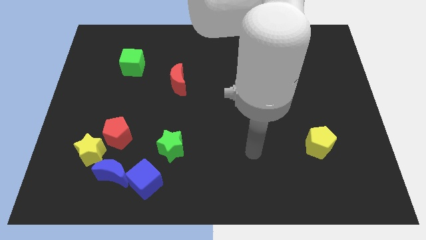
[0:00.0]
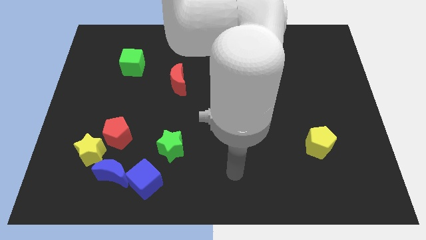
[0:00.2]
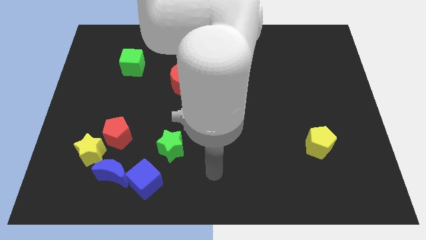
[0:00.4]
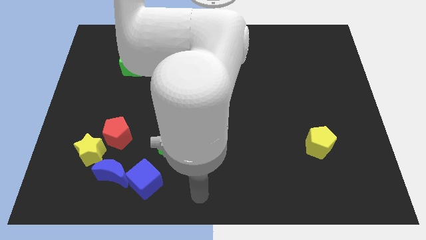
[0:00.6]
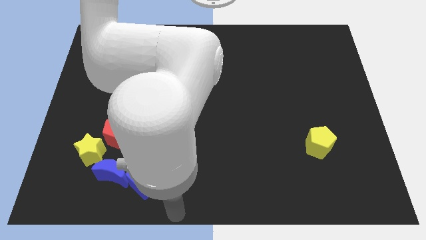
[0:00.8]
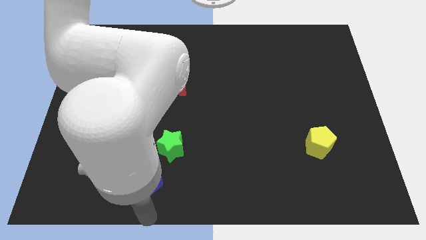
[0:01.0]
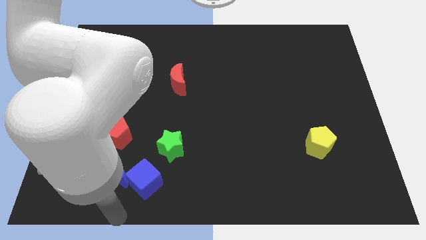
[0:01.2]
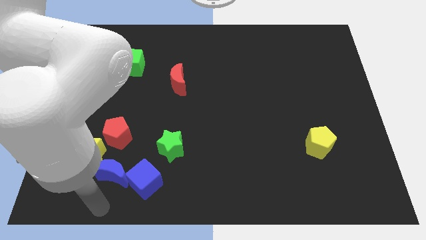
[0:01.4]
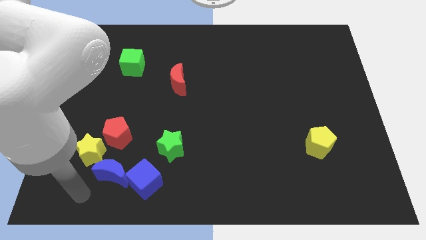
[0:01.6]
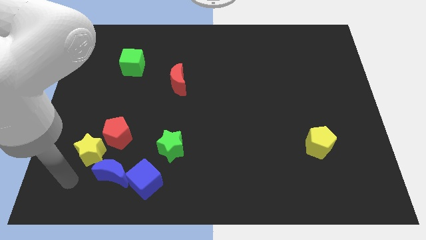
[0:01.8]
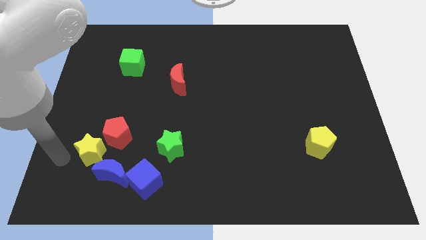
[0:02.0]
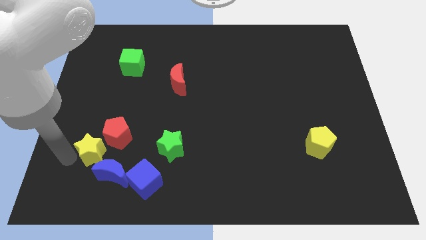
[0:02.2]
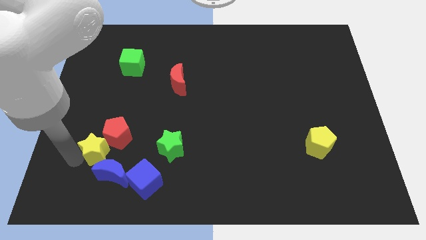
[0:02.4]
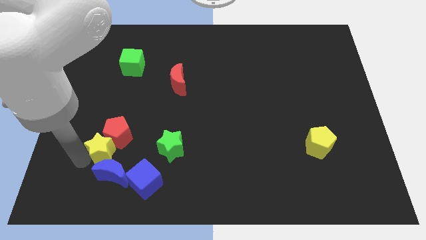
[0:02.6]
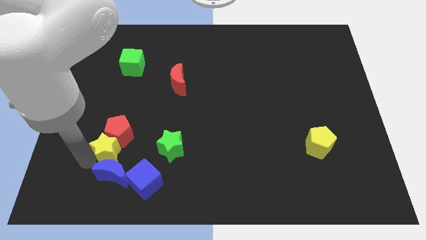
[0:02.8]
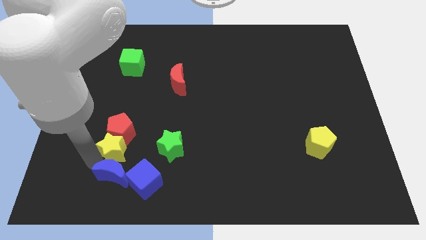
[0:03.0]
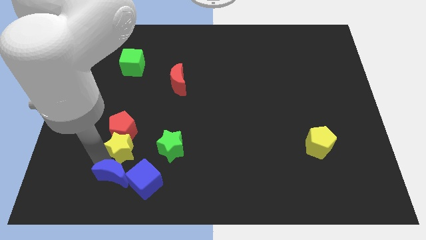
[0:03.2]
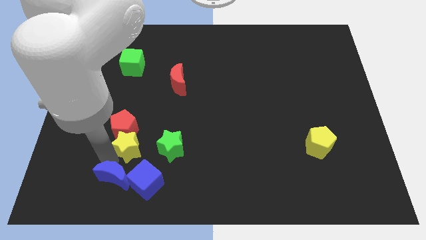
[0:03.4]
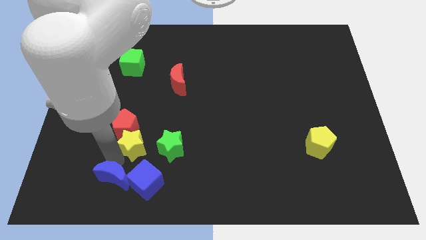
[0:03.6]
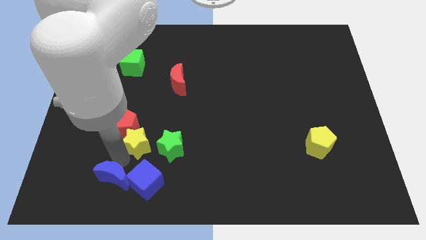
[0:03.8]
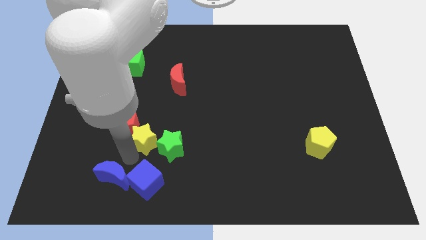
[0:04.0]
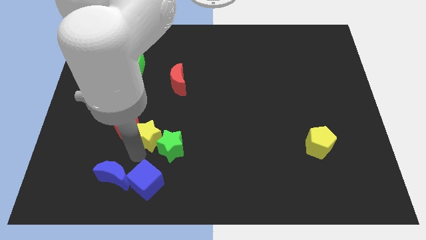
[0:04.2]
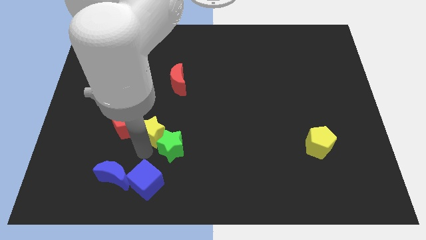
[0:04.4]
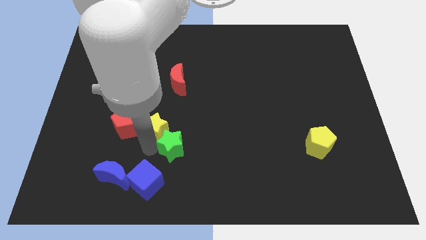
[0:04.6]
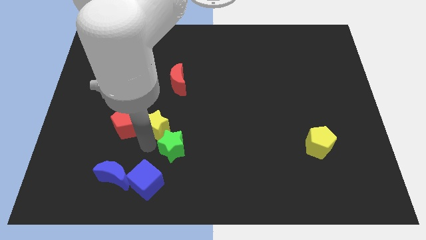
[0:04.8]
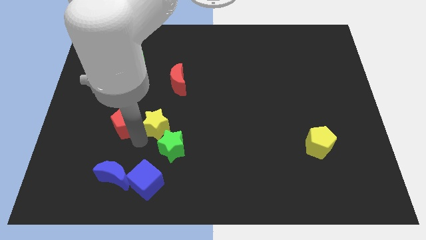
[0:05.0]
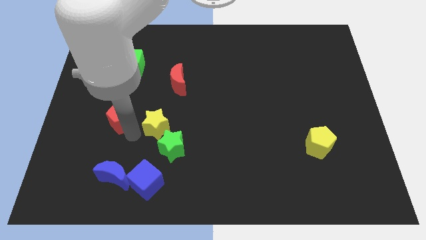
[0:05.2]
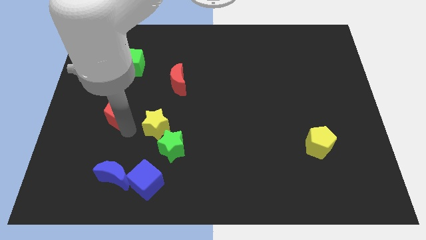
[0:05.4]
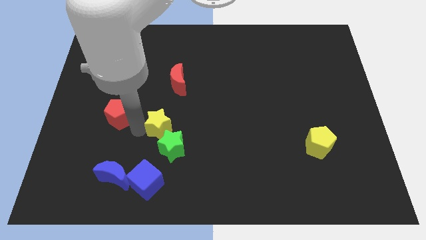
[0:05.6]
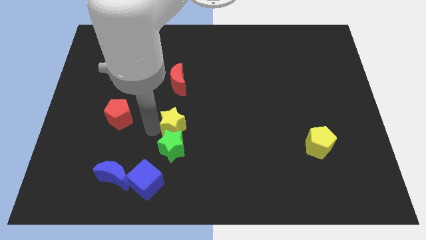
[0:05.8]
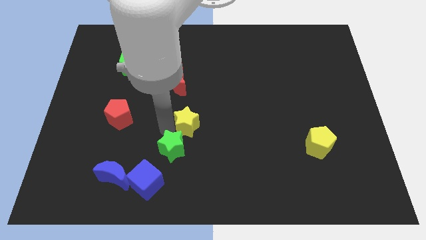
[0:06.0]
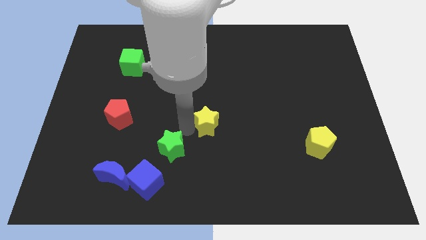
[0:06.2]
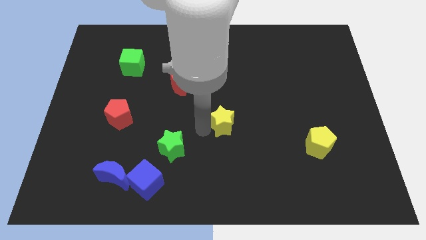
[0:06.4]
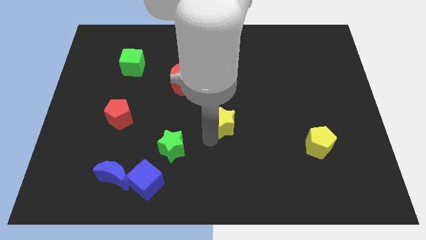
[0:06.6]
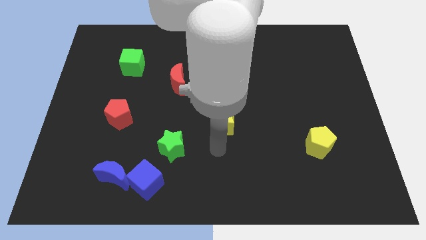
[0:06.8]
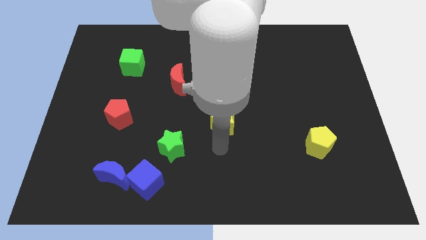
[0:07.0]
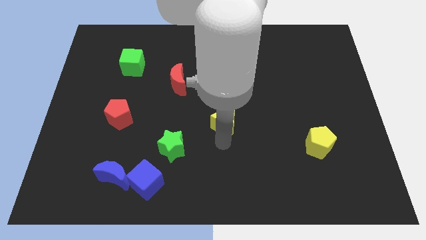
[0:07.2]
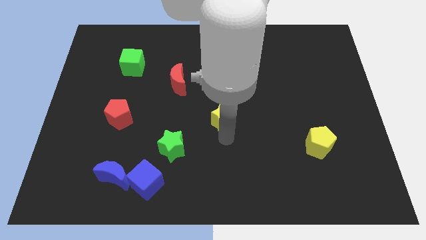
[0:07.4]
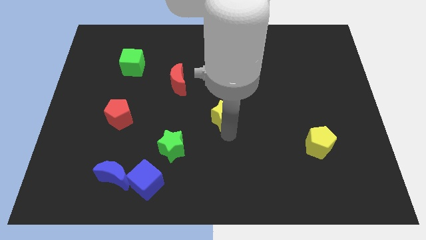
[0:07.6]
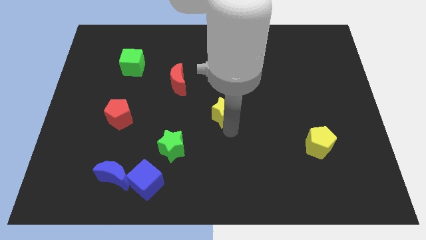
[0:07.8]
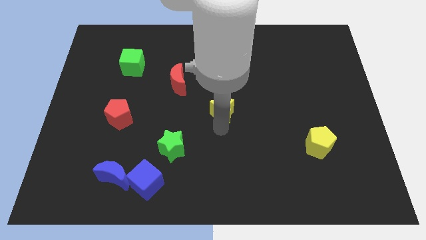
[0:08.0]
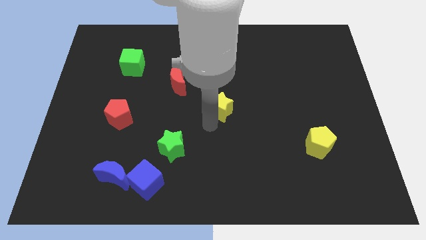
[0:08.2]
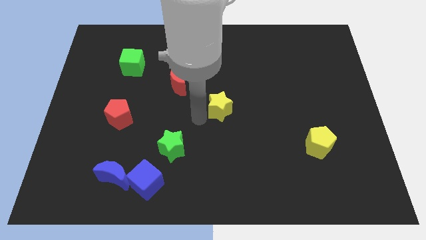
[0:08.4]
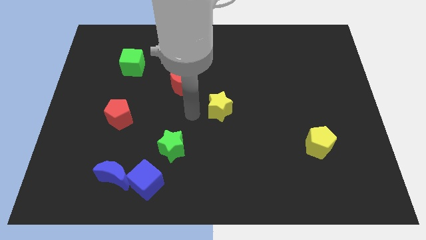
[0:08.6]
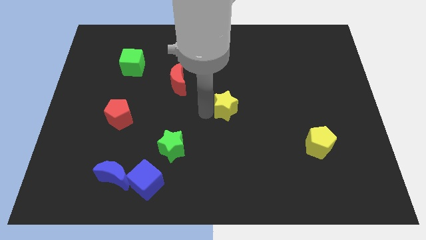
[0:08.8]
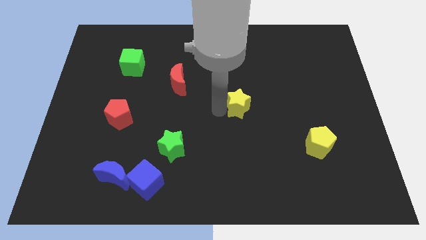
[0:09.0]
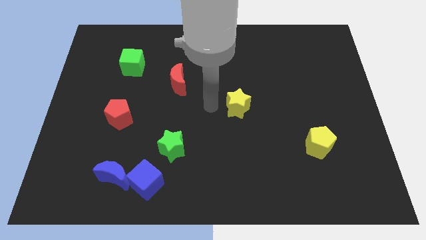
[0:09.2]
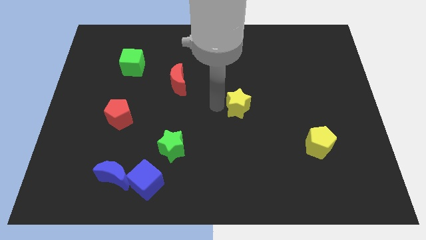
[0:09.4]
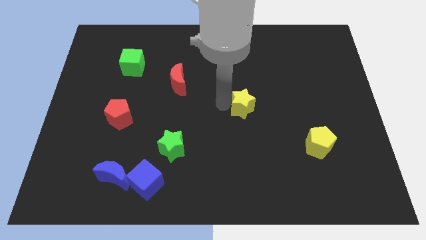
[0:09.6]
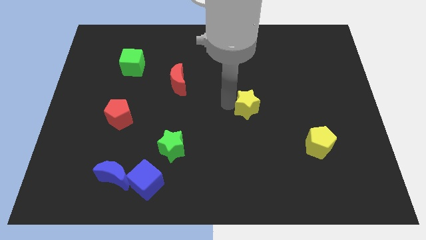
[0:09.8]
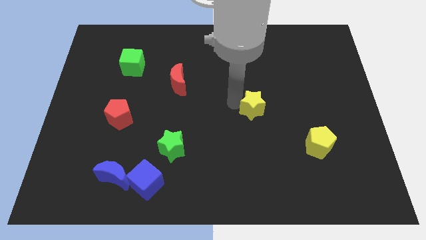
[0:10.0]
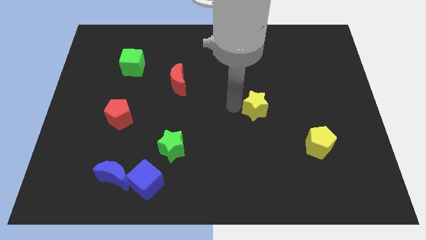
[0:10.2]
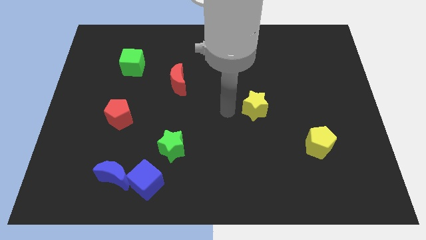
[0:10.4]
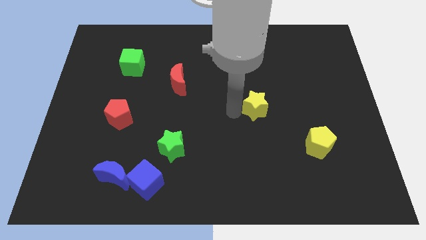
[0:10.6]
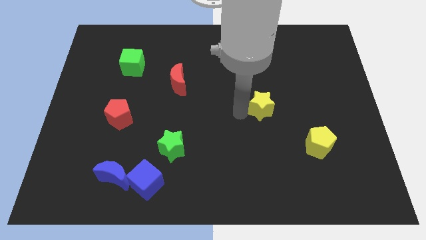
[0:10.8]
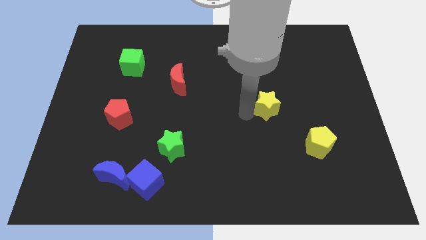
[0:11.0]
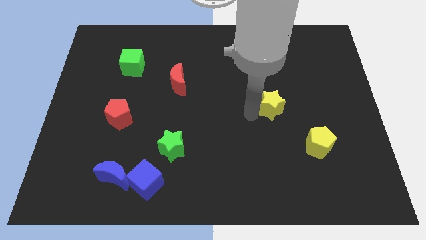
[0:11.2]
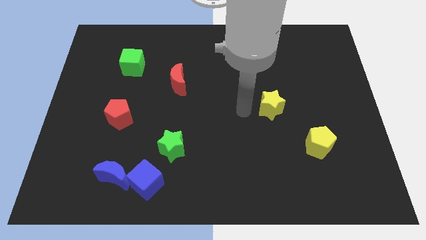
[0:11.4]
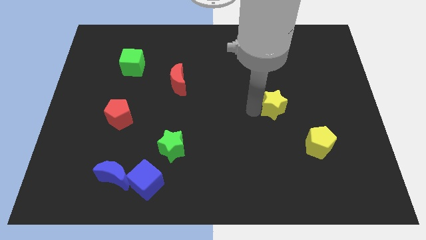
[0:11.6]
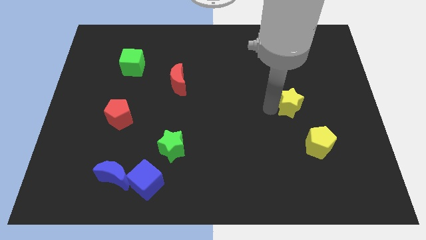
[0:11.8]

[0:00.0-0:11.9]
slide the yellow star to the top side of the yellow pentagon

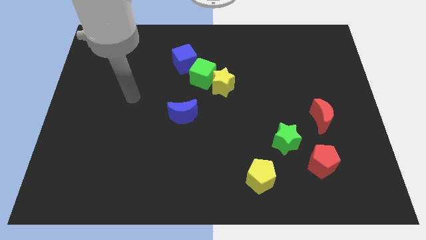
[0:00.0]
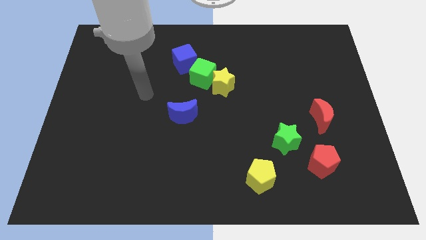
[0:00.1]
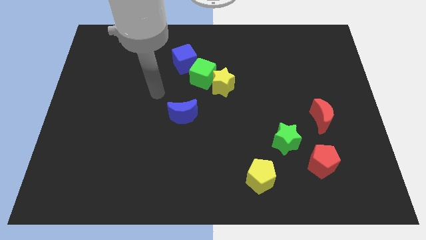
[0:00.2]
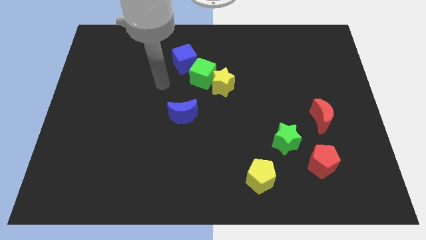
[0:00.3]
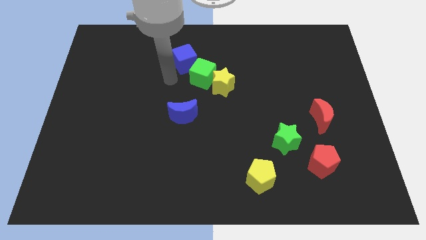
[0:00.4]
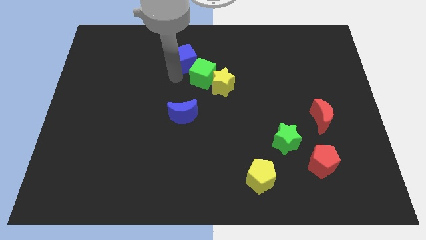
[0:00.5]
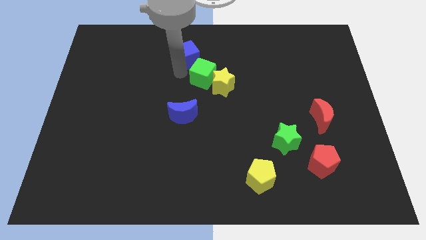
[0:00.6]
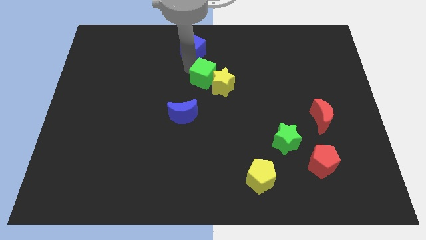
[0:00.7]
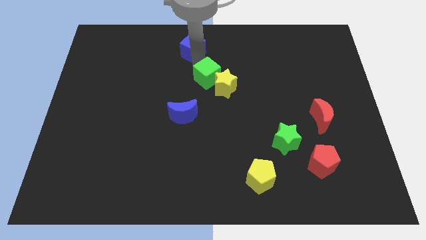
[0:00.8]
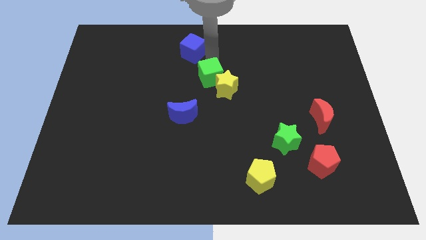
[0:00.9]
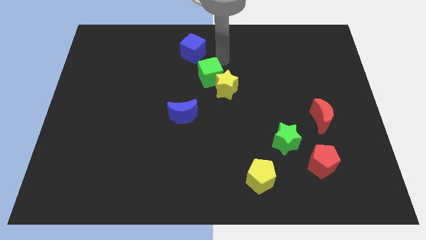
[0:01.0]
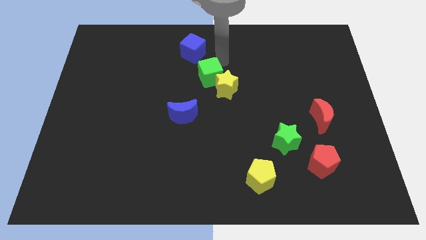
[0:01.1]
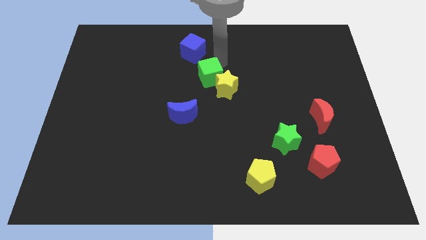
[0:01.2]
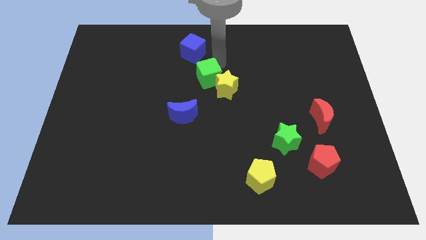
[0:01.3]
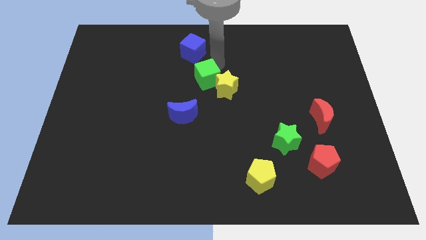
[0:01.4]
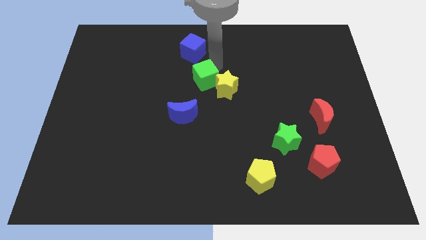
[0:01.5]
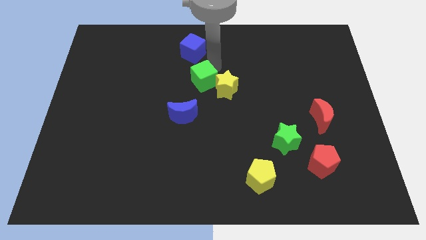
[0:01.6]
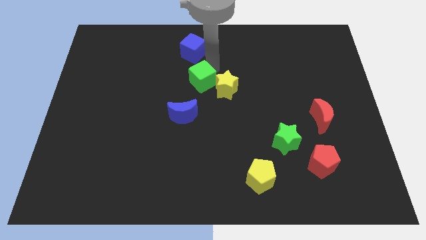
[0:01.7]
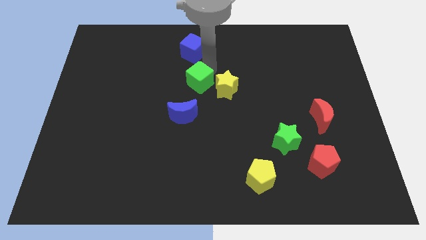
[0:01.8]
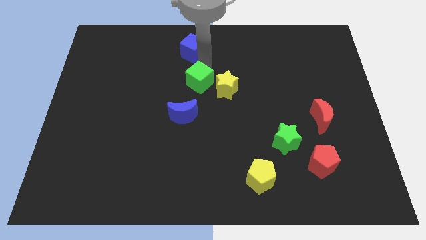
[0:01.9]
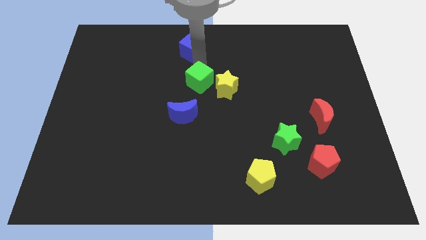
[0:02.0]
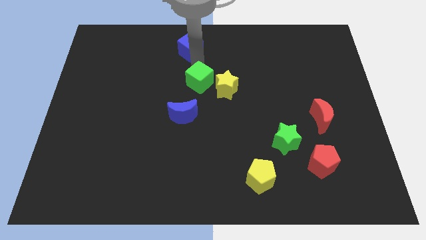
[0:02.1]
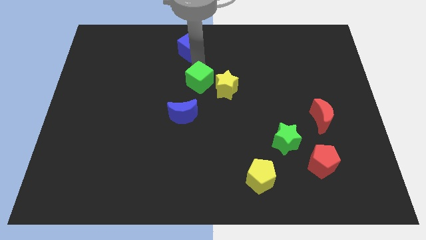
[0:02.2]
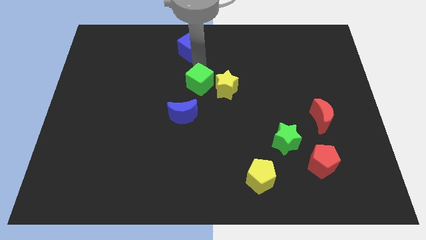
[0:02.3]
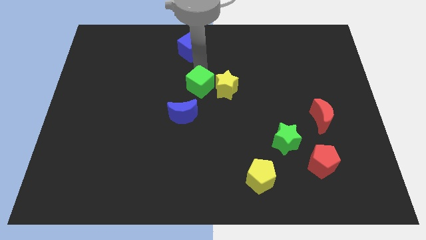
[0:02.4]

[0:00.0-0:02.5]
move the green cube to the bottom left side of the yellow star
